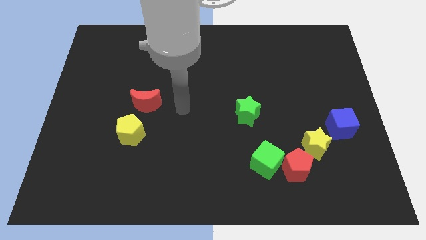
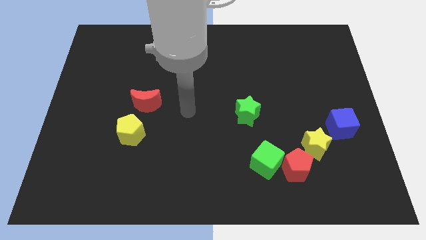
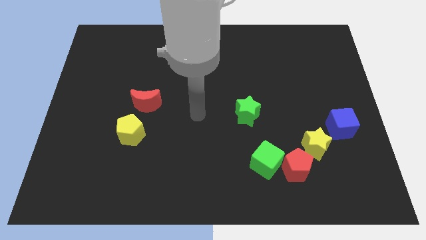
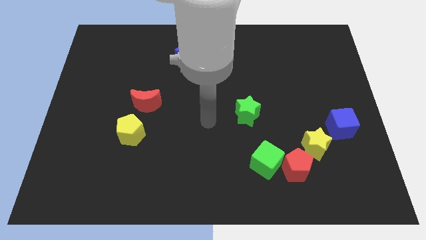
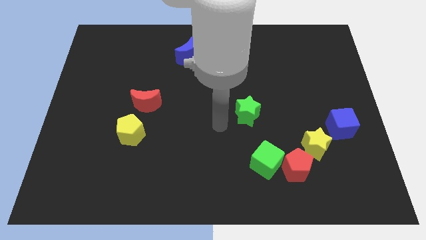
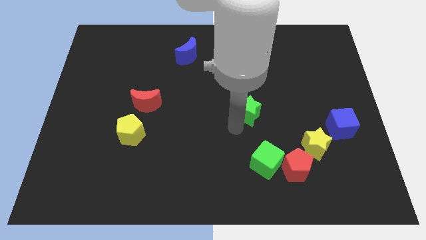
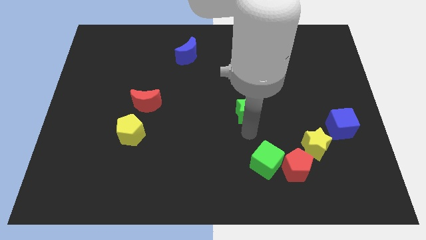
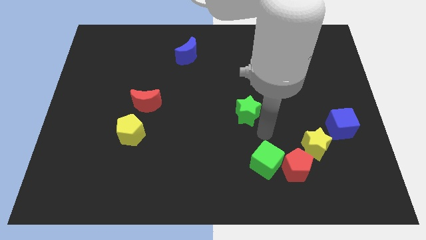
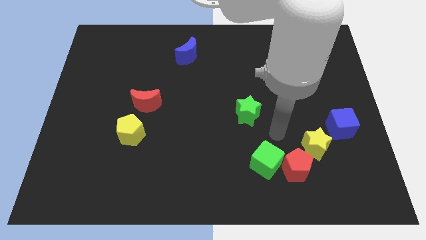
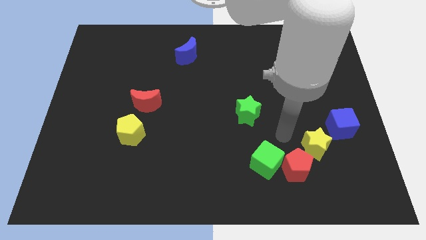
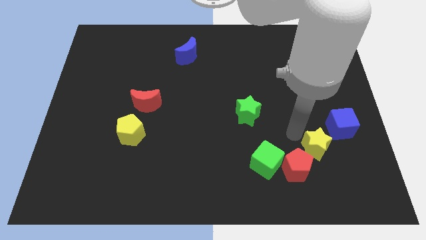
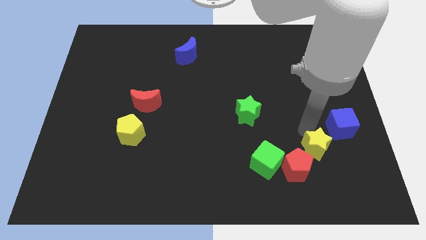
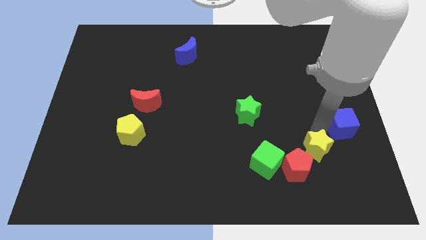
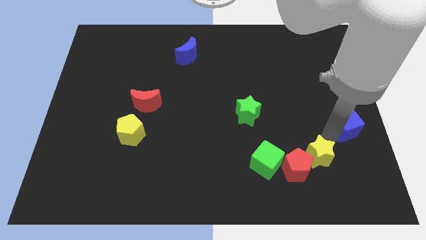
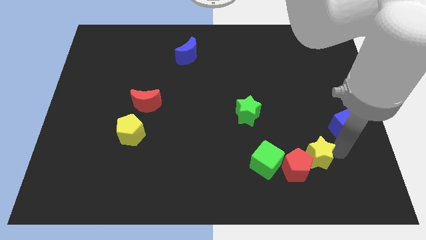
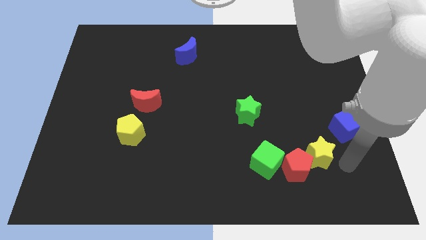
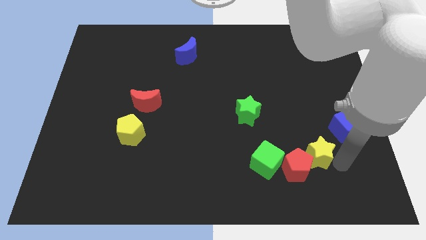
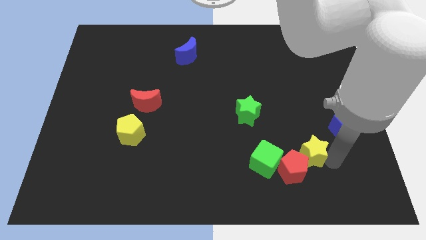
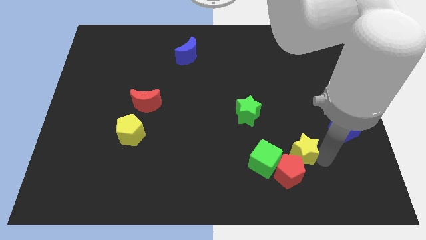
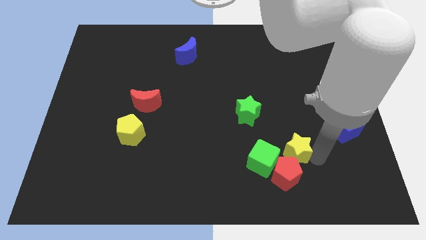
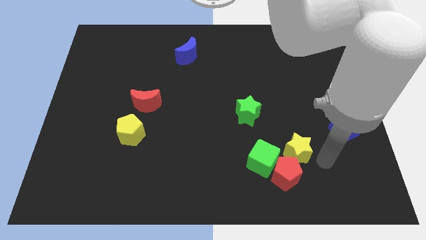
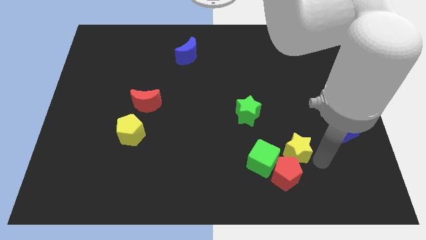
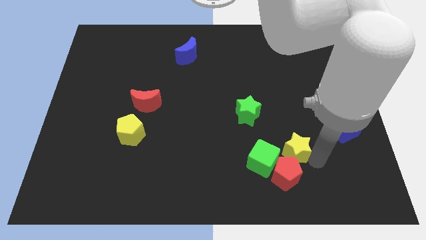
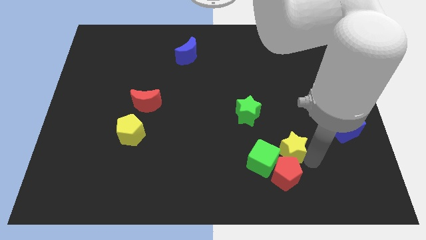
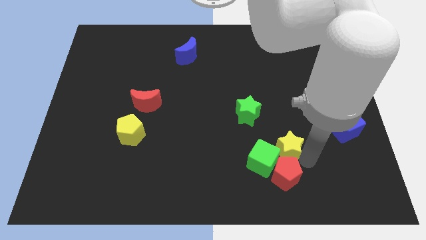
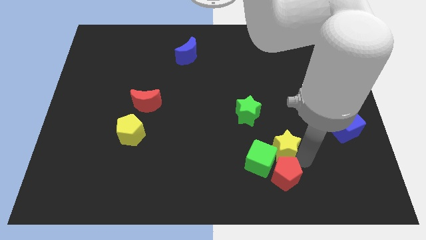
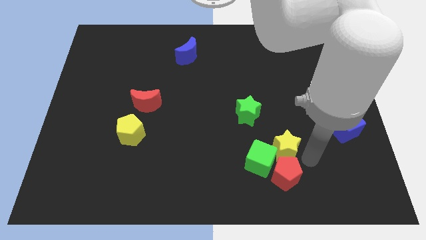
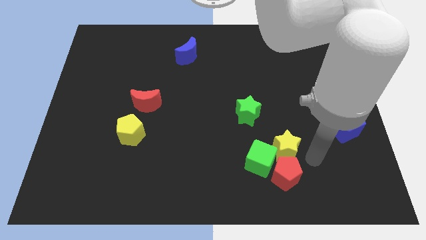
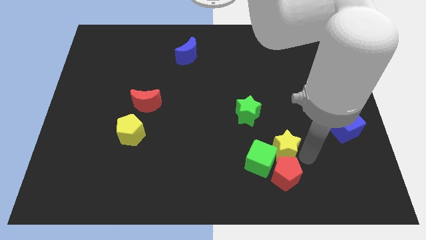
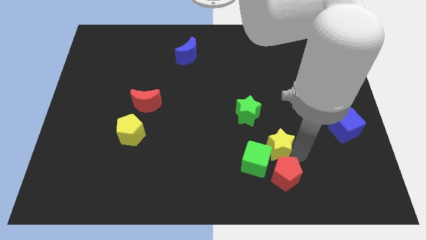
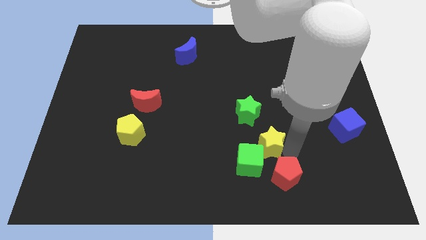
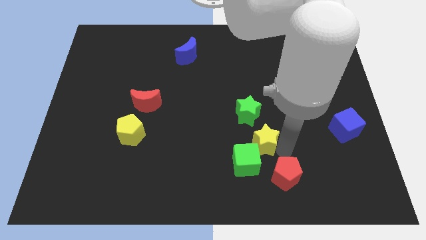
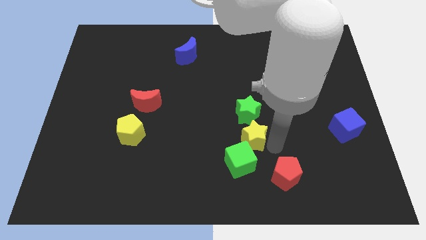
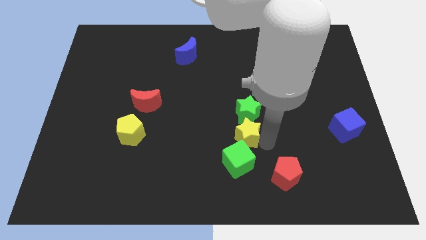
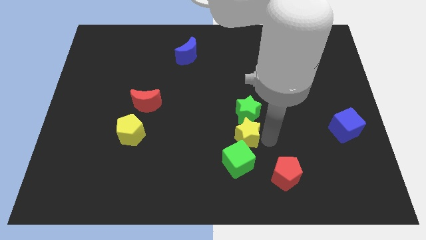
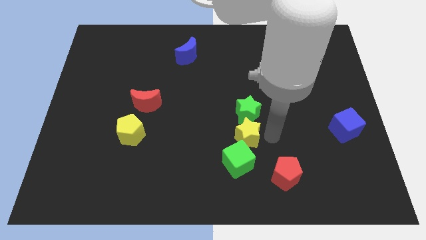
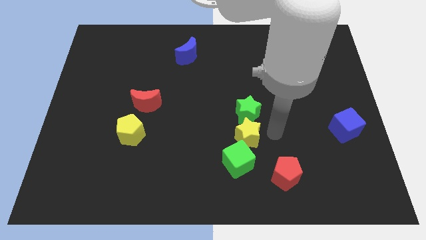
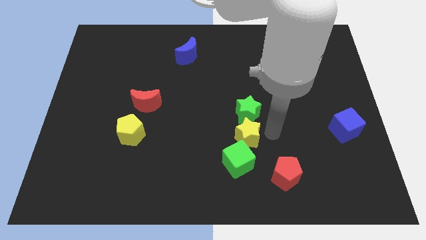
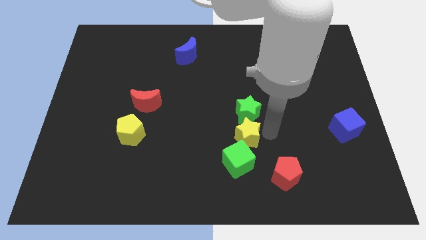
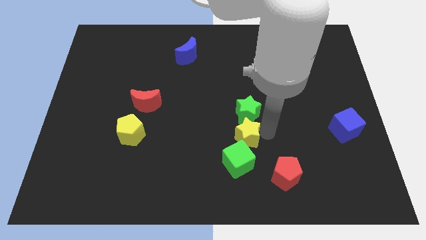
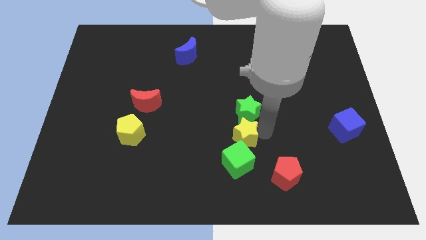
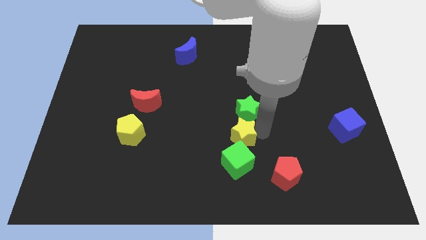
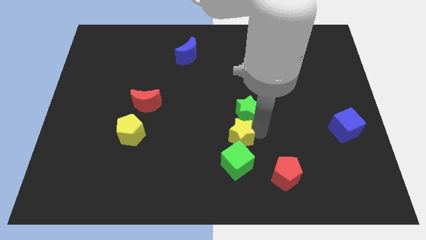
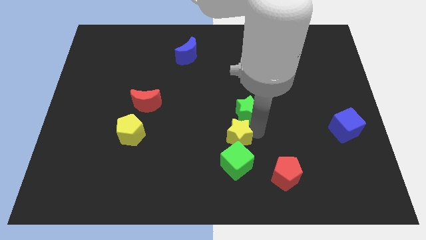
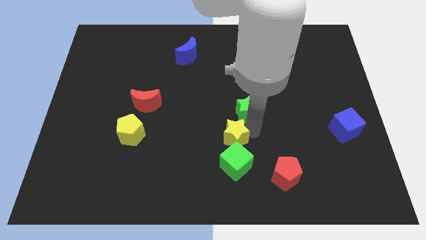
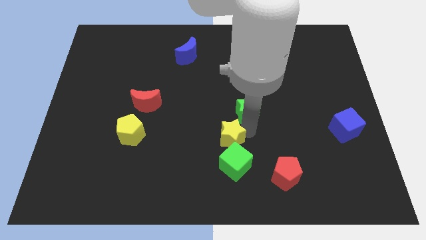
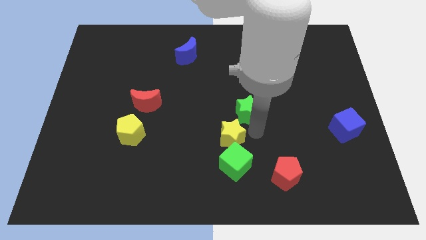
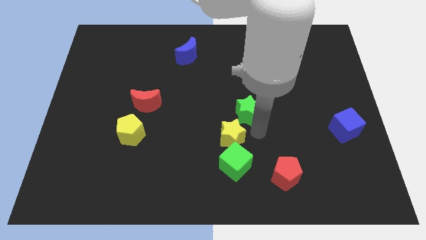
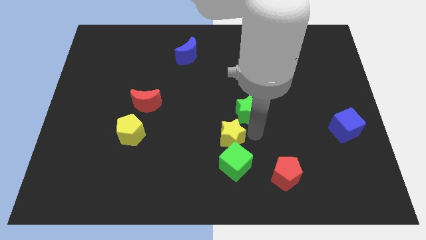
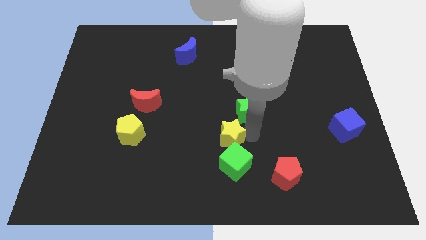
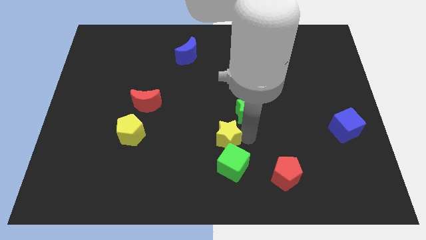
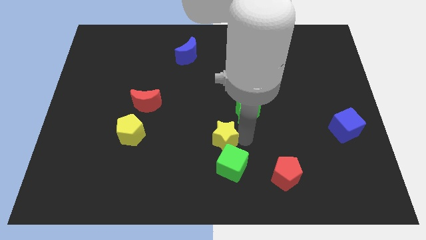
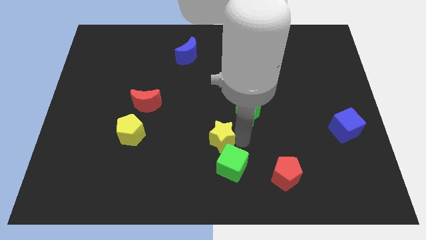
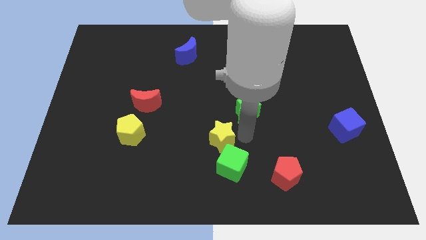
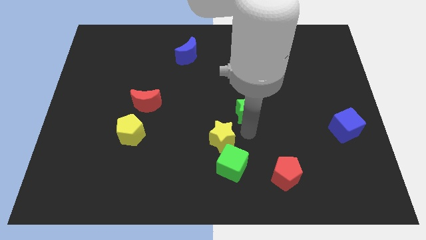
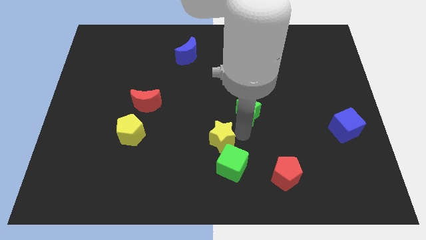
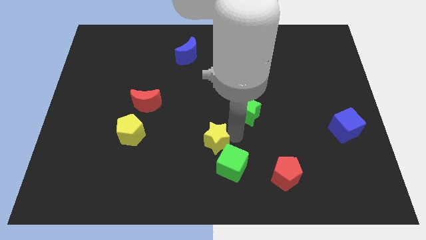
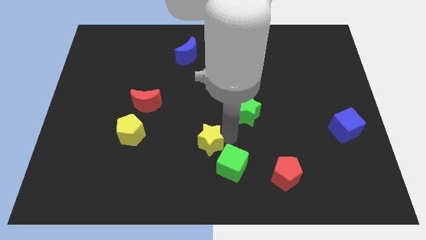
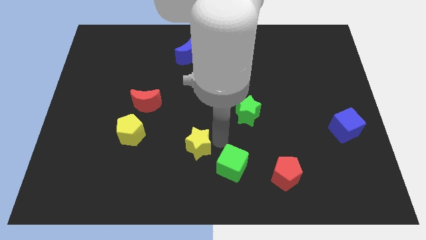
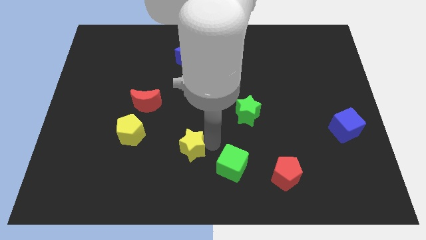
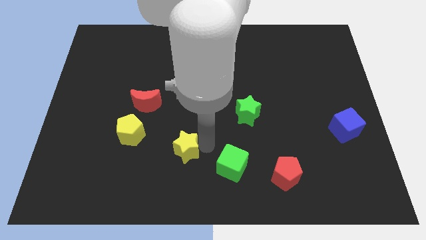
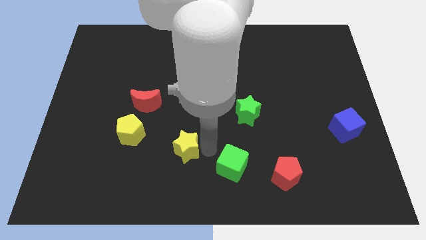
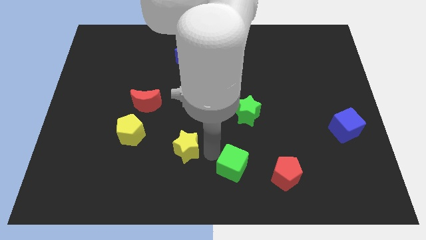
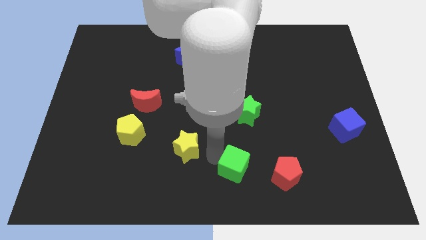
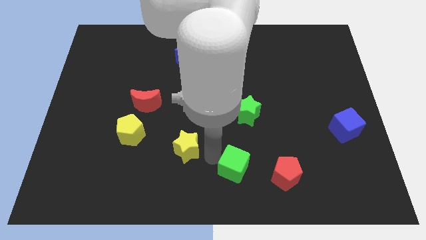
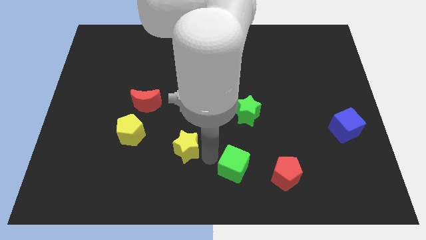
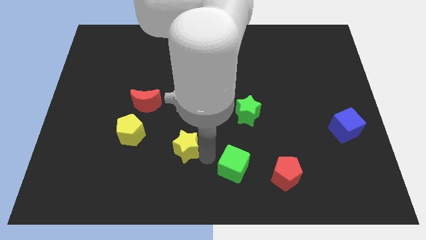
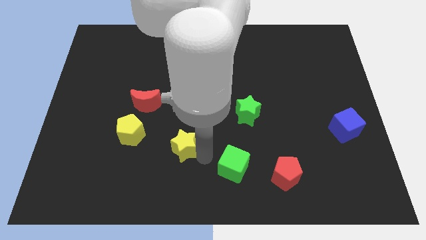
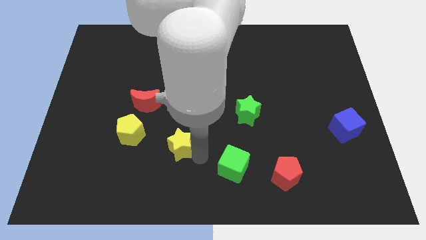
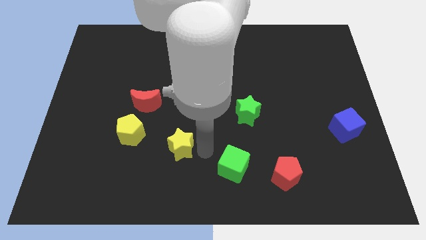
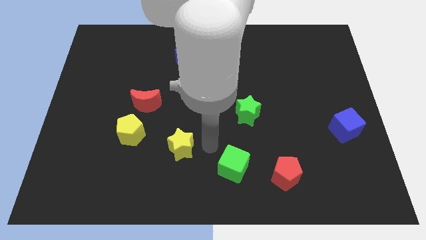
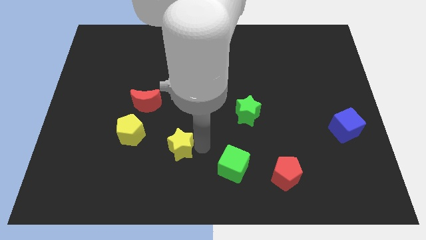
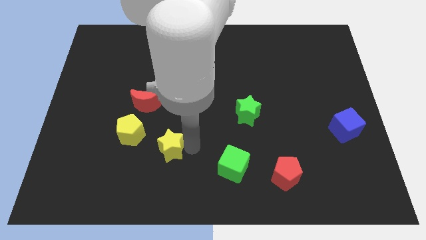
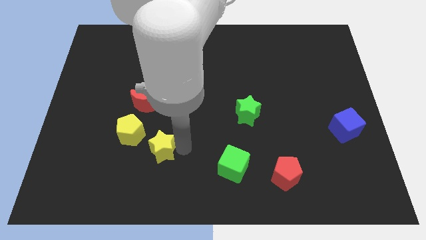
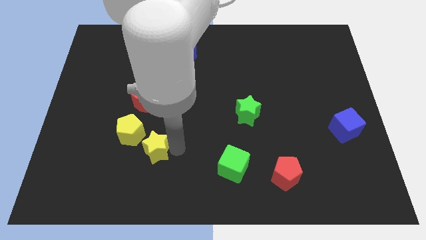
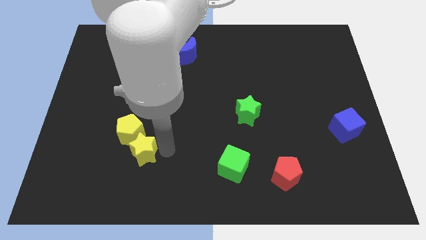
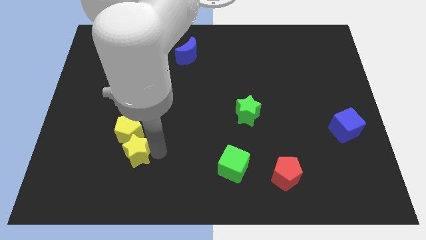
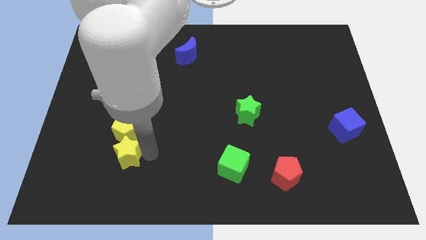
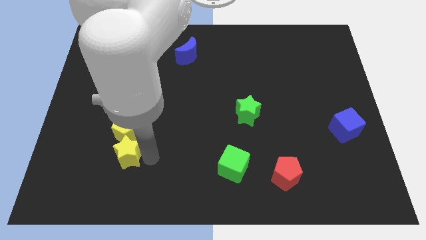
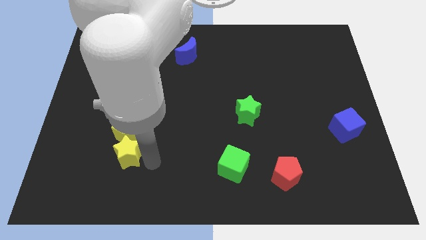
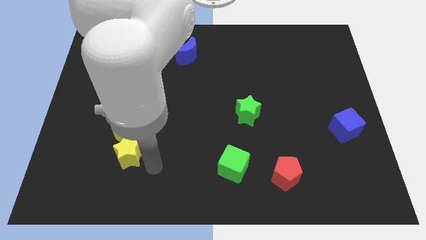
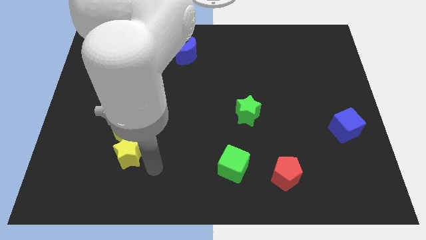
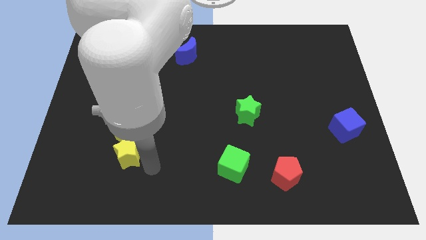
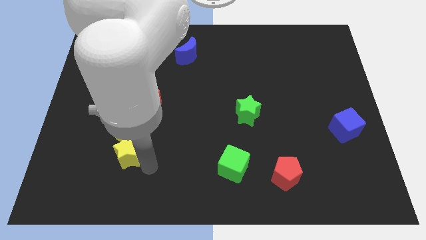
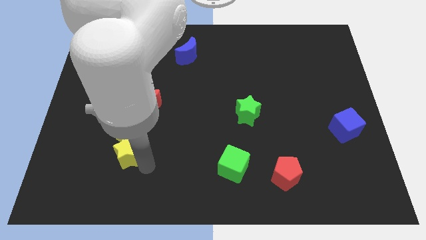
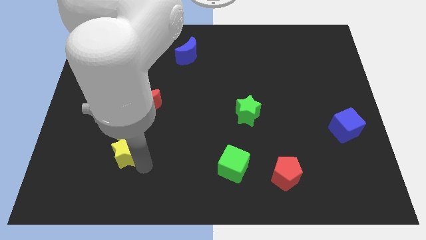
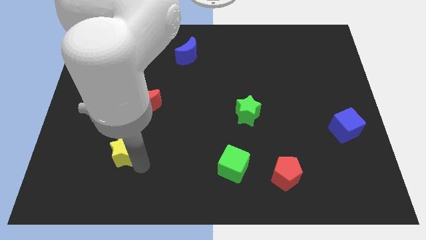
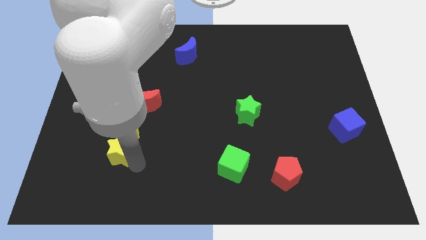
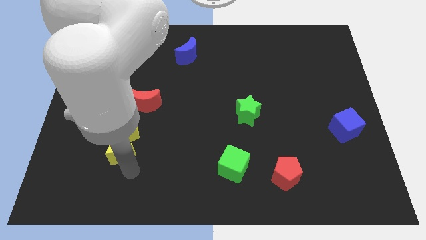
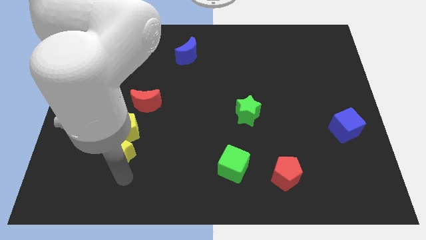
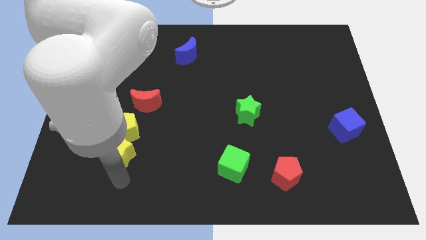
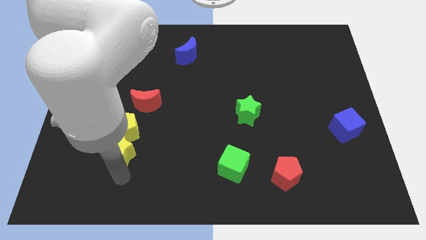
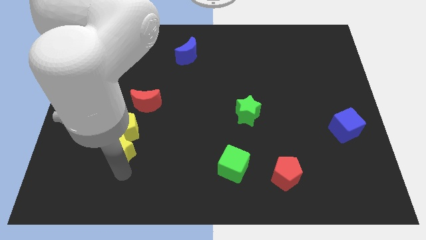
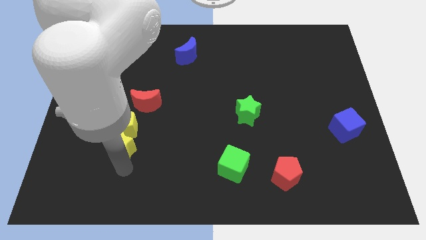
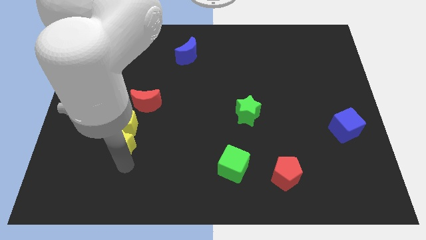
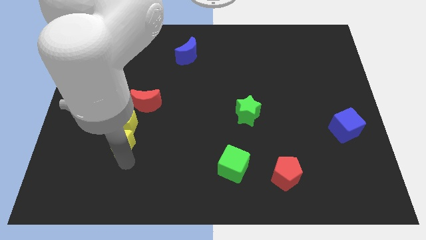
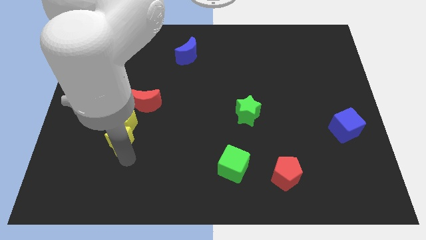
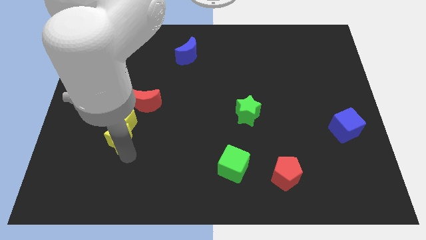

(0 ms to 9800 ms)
slide the yellow star diagonally down and to the left of the red moon
